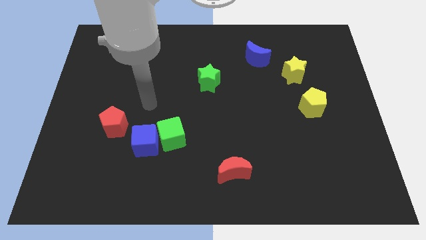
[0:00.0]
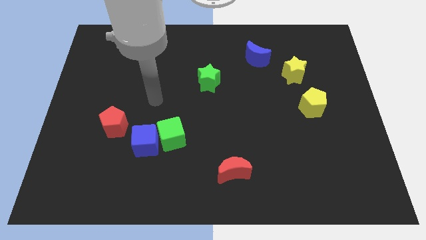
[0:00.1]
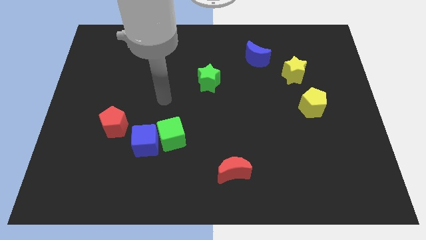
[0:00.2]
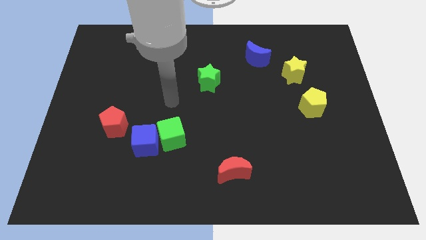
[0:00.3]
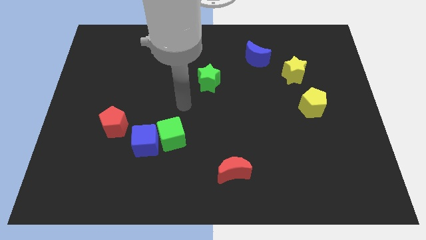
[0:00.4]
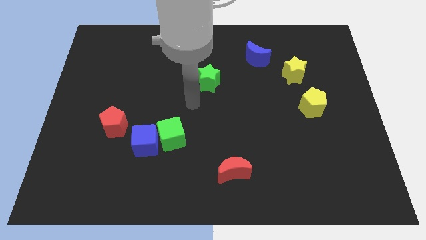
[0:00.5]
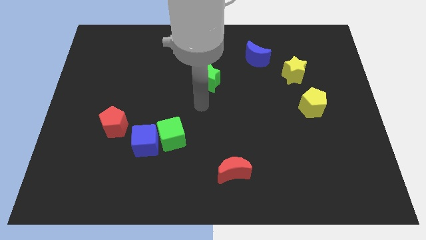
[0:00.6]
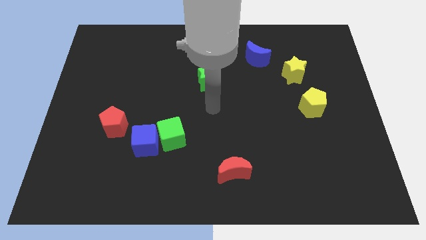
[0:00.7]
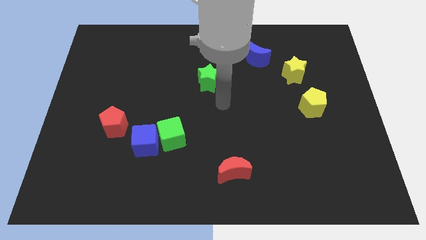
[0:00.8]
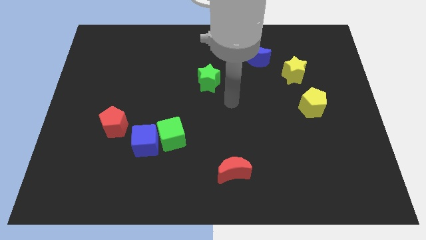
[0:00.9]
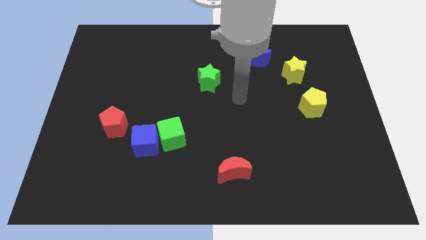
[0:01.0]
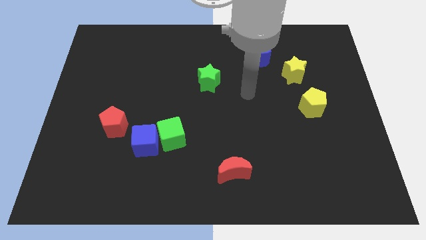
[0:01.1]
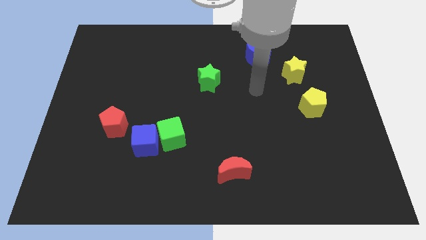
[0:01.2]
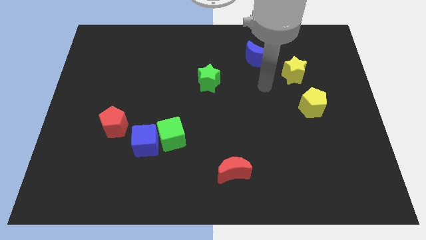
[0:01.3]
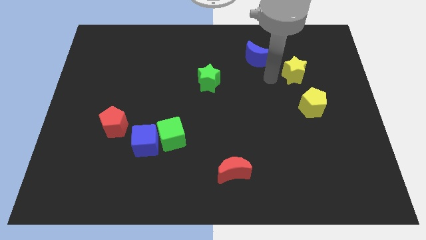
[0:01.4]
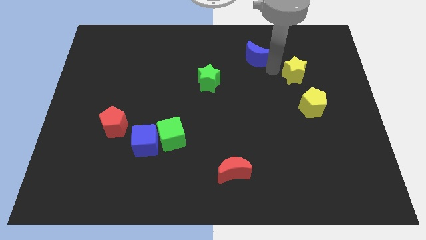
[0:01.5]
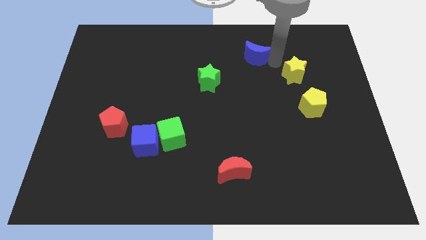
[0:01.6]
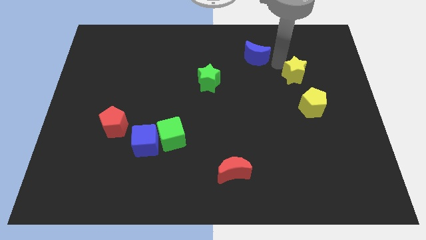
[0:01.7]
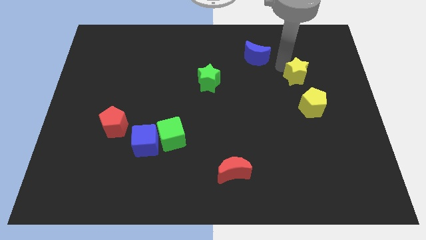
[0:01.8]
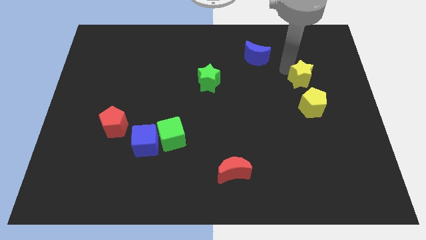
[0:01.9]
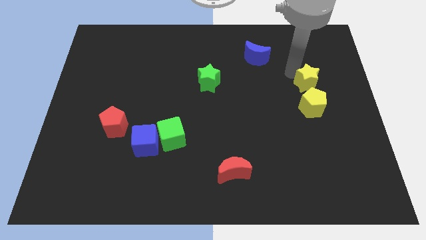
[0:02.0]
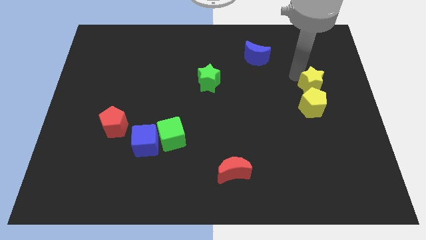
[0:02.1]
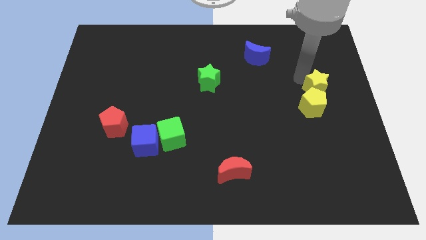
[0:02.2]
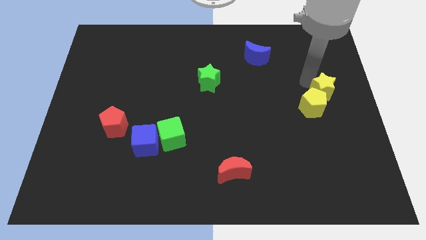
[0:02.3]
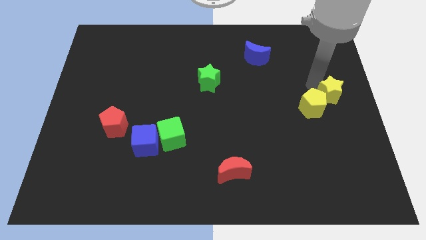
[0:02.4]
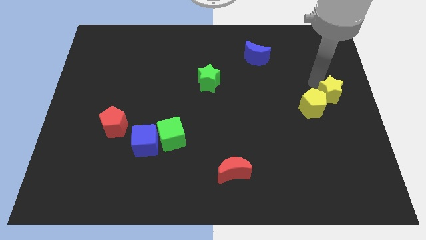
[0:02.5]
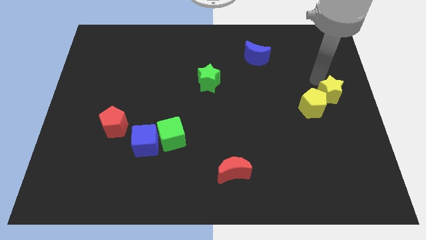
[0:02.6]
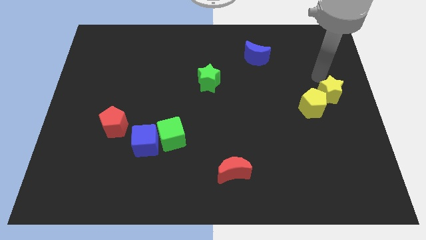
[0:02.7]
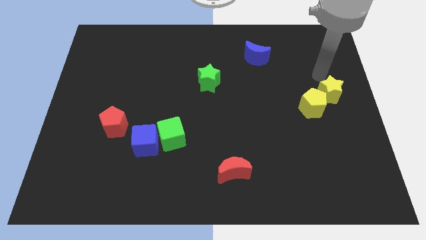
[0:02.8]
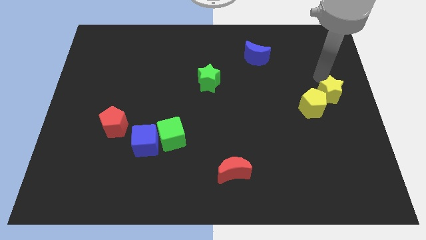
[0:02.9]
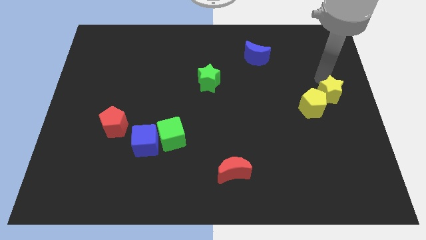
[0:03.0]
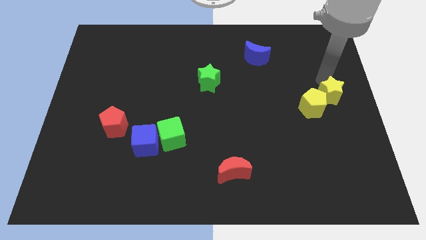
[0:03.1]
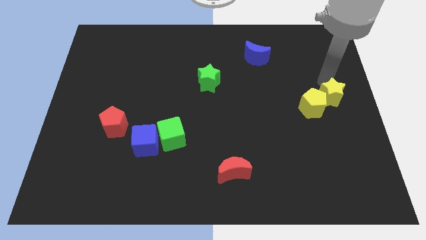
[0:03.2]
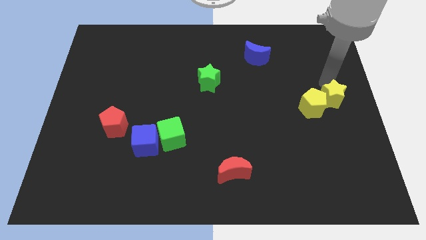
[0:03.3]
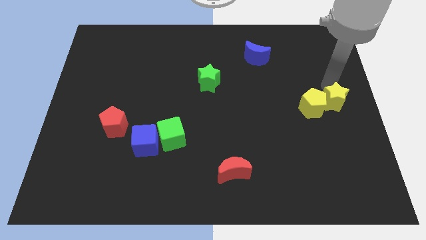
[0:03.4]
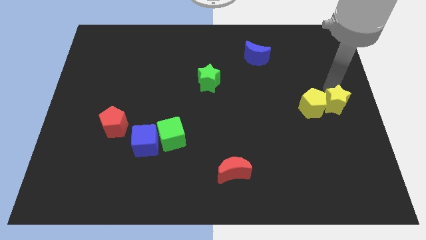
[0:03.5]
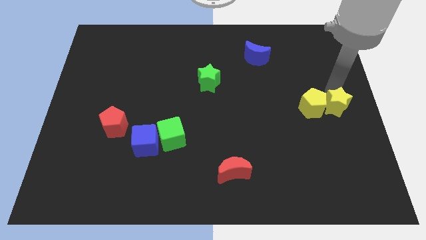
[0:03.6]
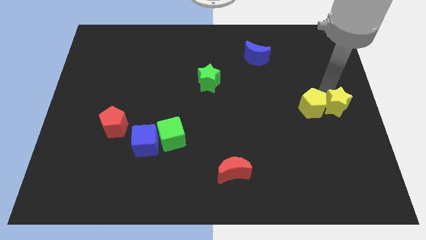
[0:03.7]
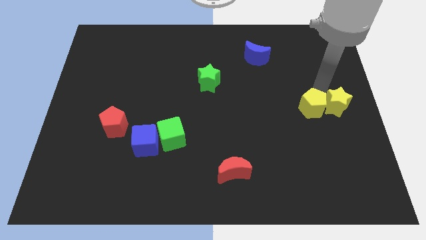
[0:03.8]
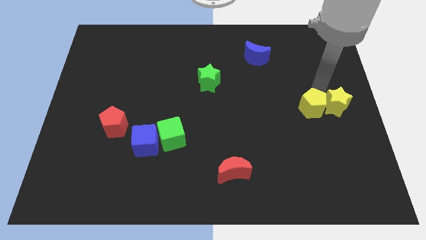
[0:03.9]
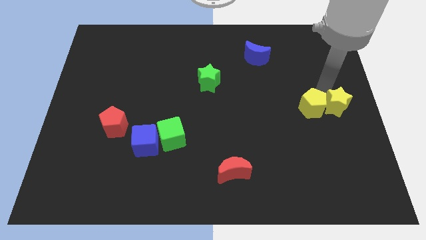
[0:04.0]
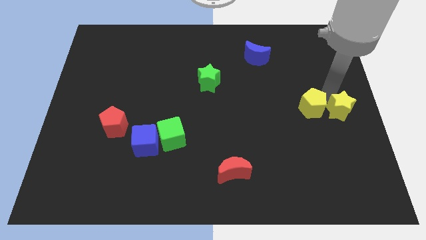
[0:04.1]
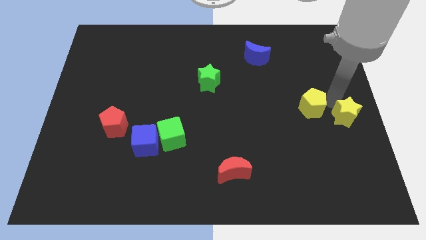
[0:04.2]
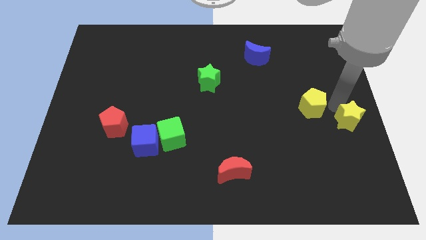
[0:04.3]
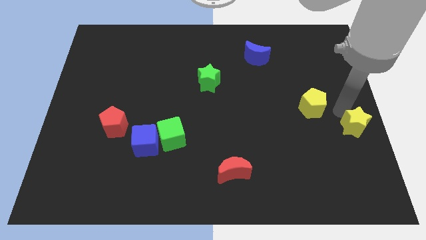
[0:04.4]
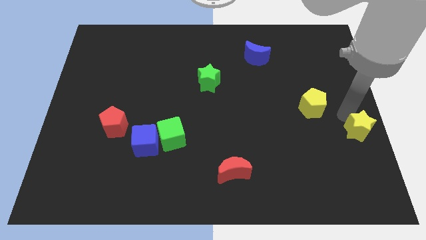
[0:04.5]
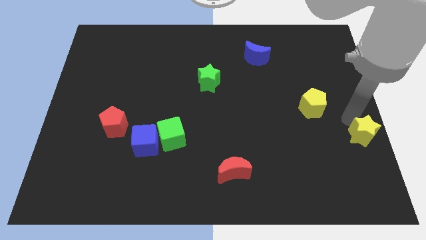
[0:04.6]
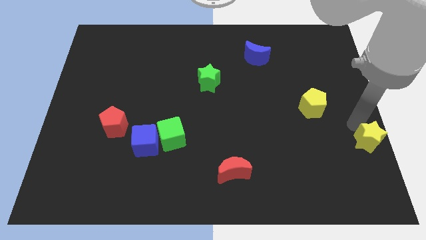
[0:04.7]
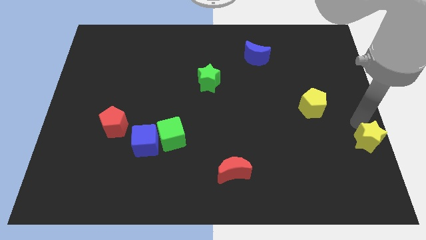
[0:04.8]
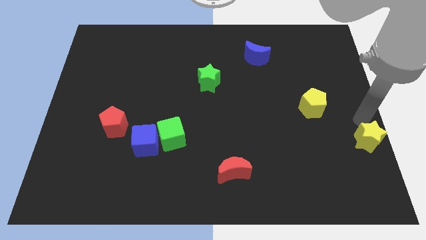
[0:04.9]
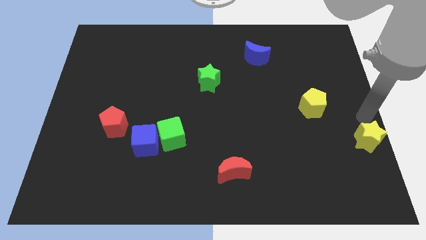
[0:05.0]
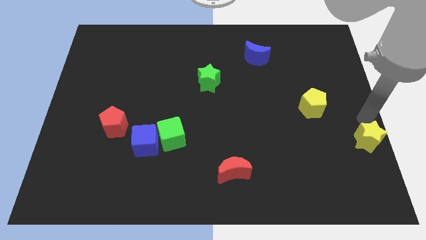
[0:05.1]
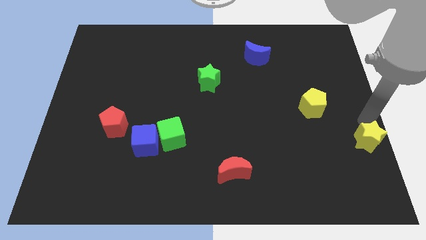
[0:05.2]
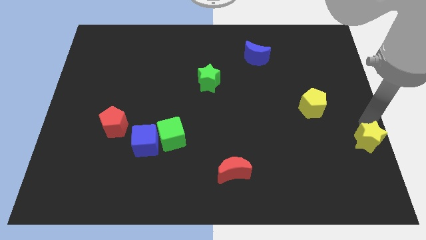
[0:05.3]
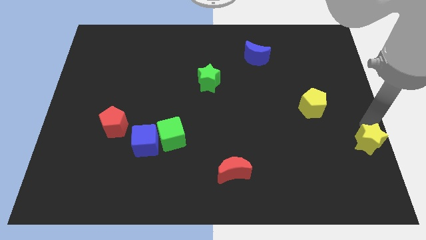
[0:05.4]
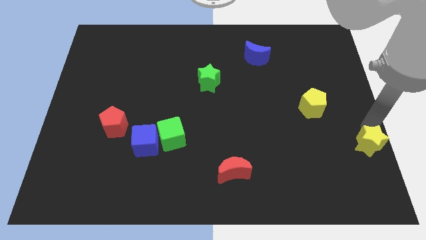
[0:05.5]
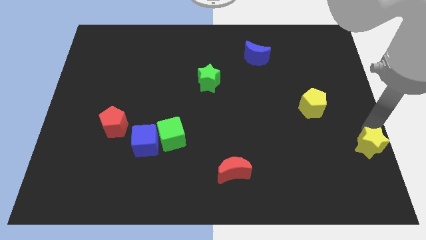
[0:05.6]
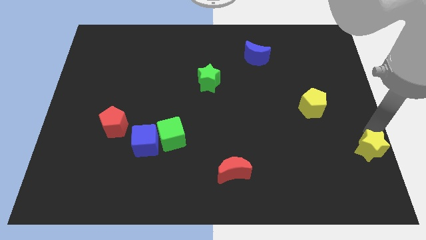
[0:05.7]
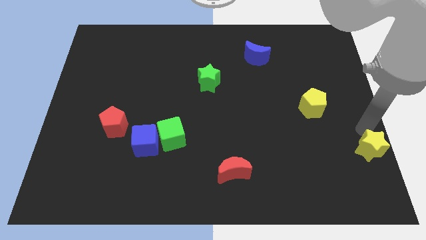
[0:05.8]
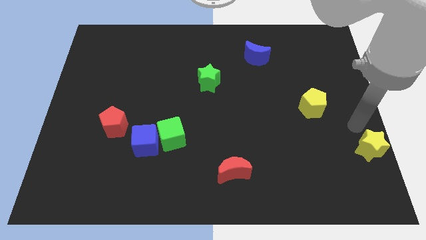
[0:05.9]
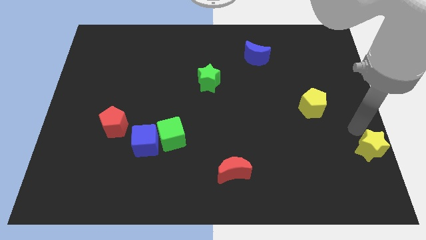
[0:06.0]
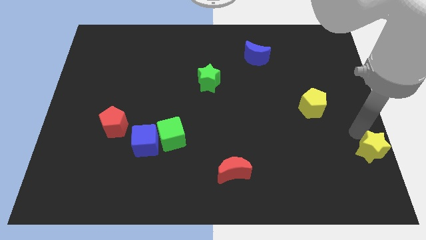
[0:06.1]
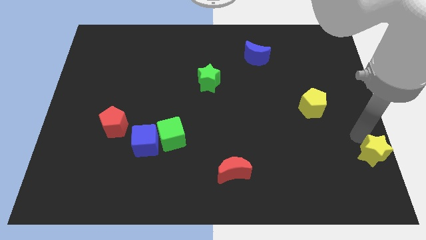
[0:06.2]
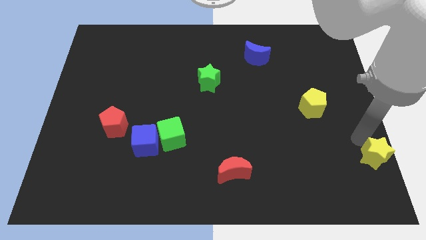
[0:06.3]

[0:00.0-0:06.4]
move the yellow star to the bottom right corner
